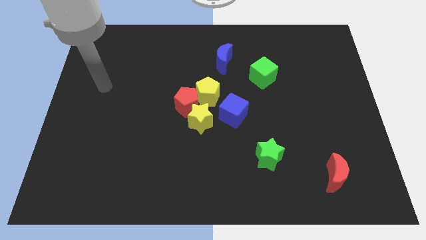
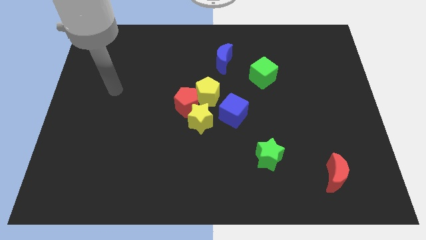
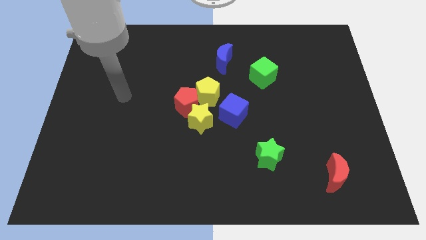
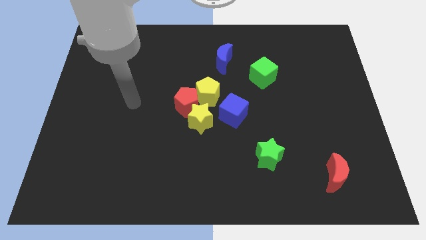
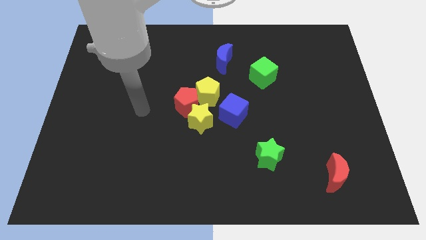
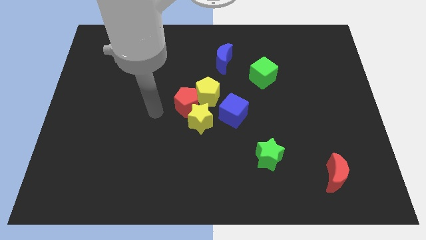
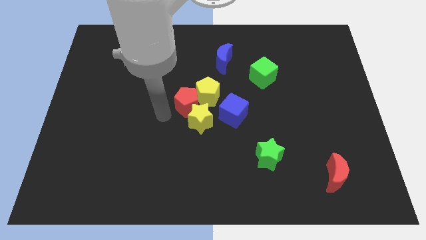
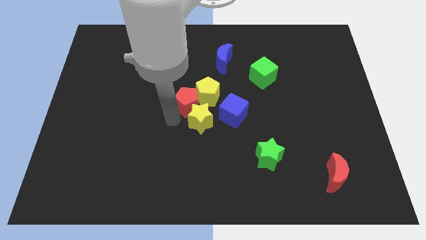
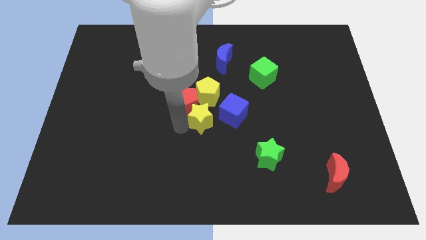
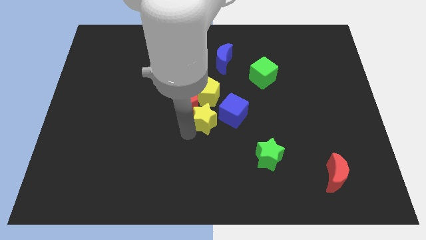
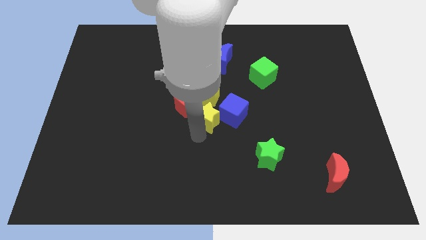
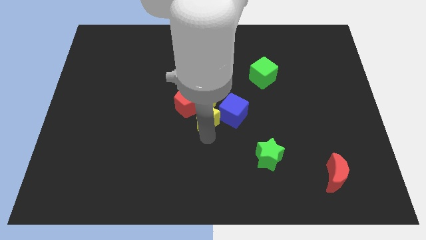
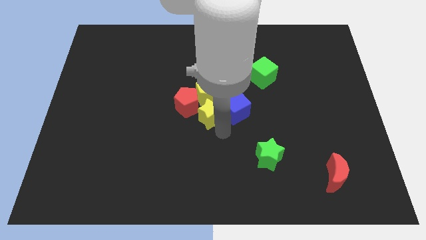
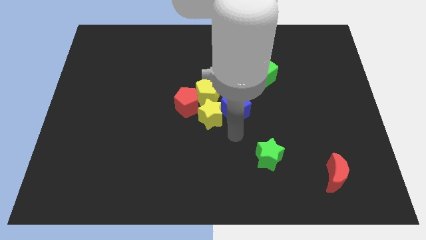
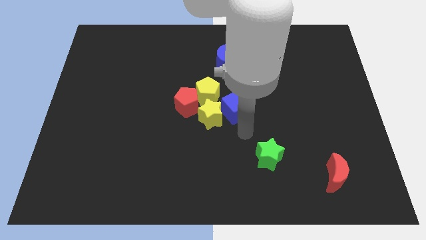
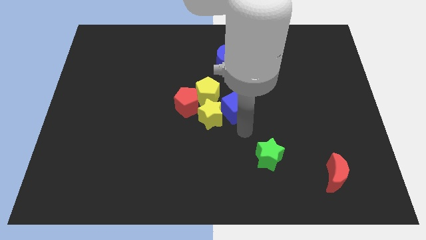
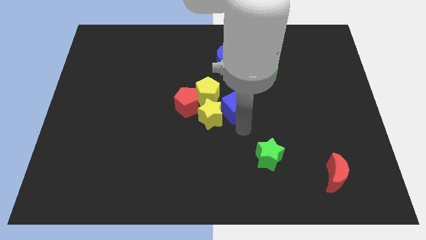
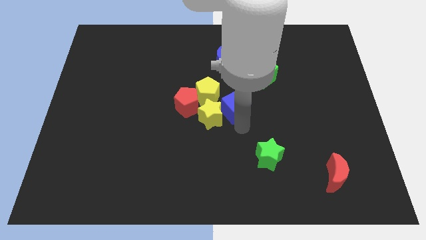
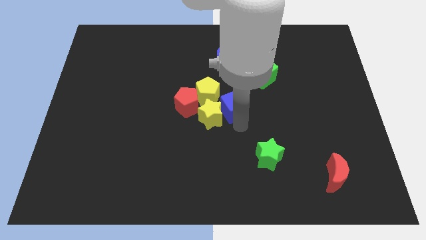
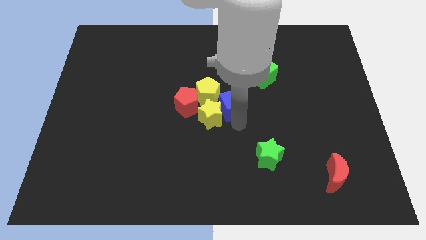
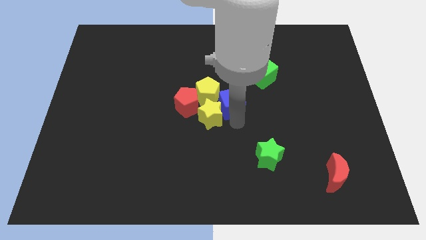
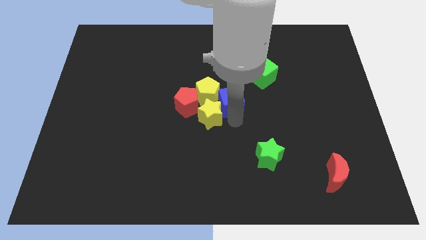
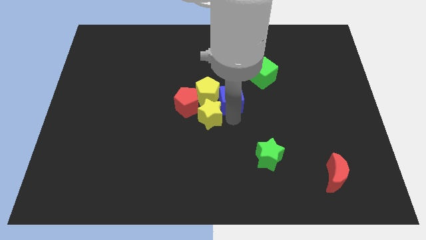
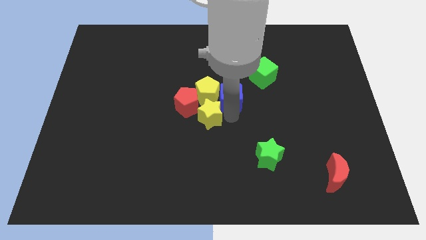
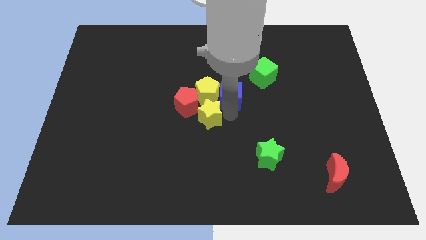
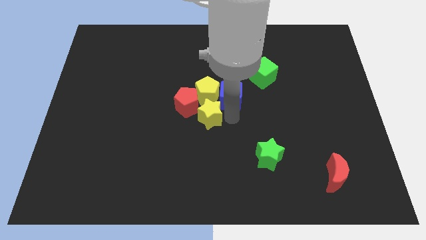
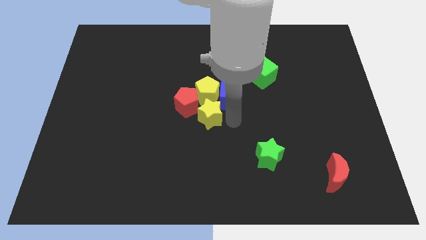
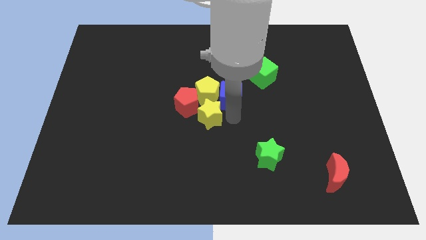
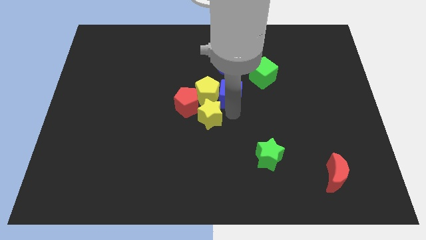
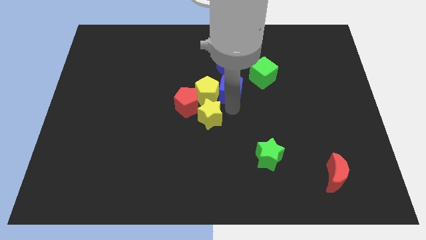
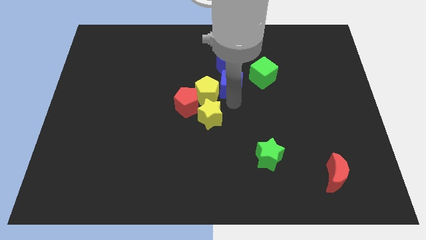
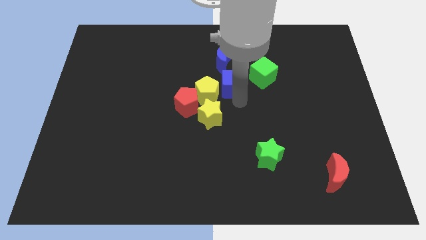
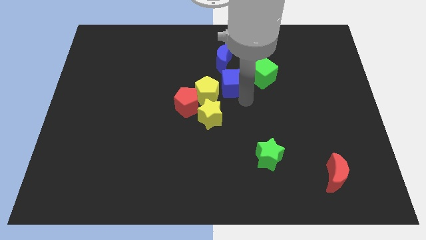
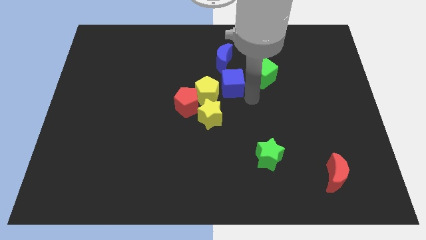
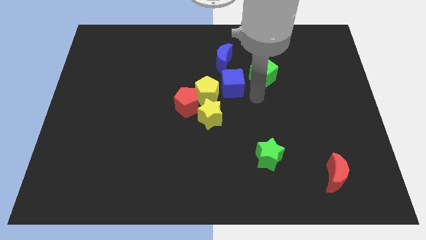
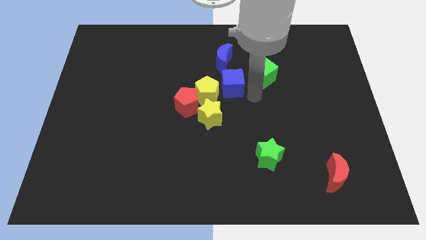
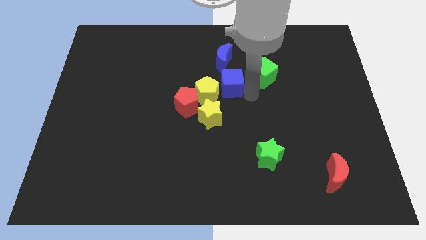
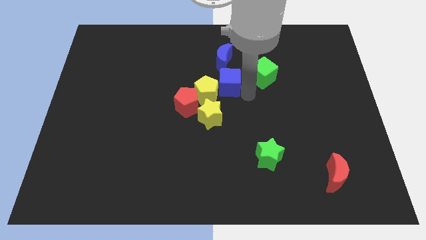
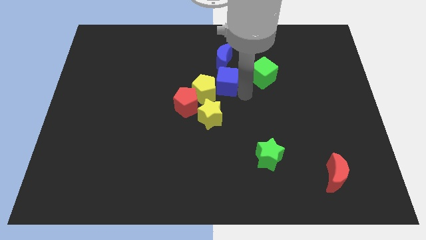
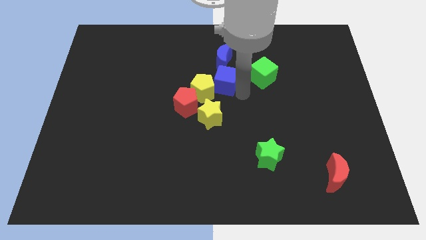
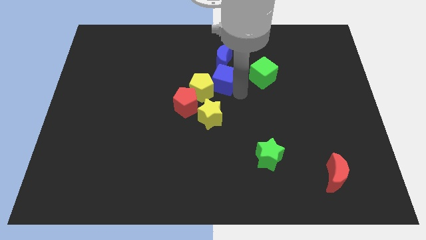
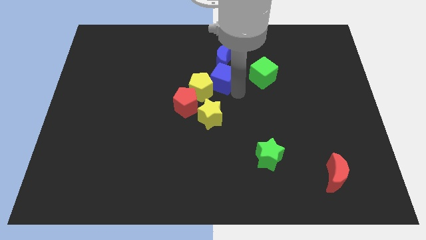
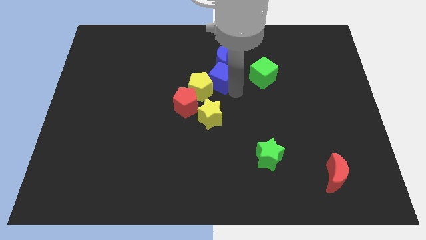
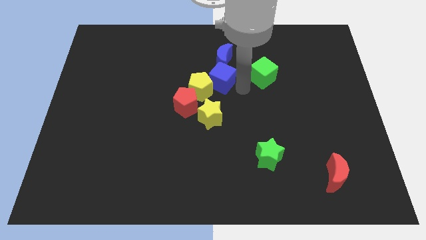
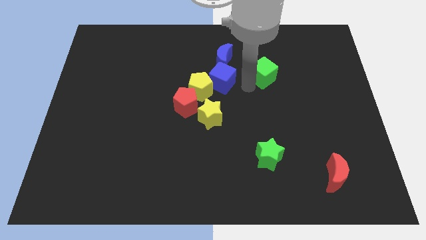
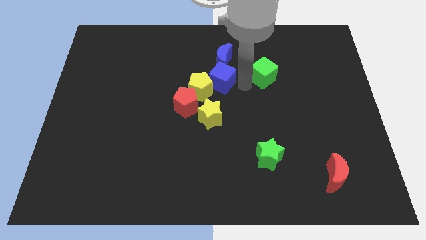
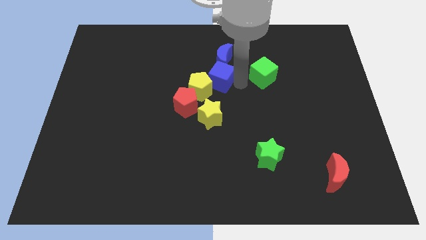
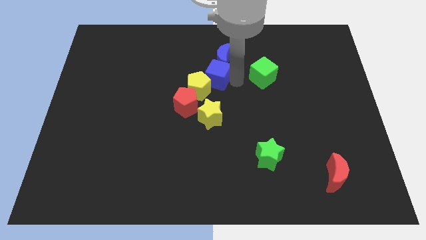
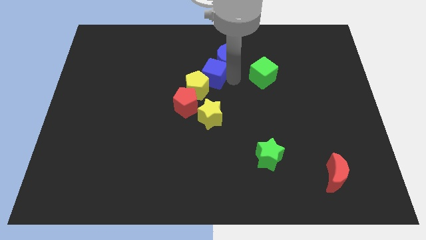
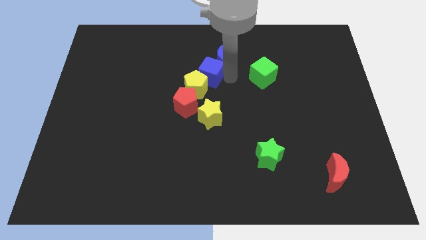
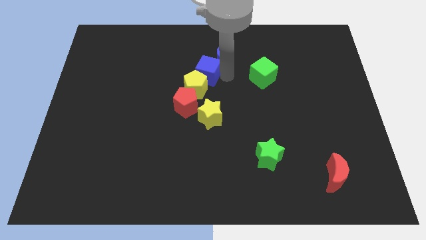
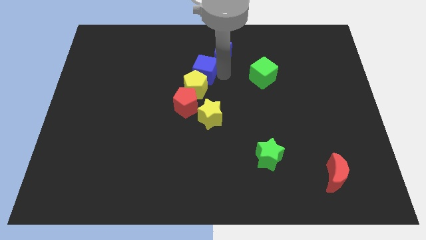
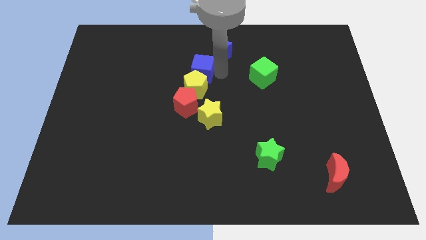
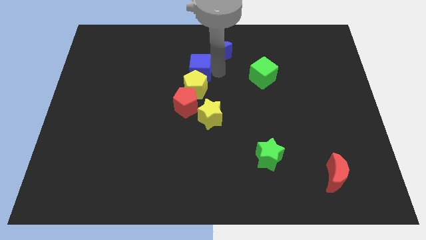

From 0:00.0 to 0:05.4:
push the blue cube to the top left of the yellow pentagon

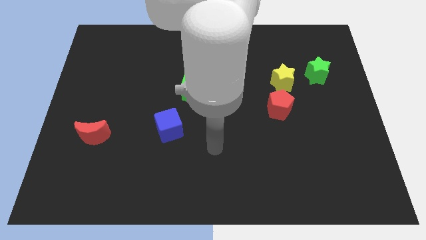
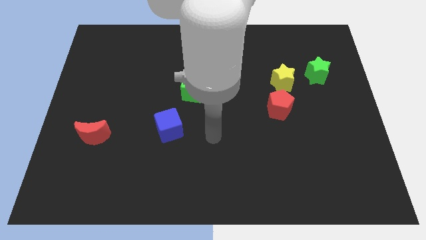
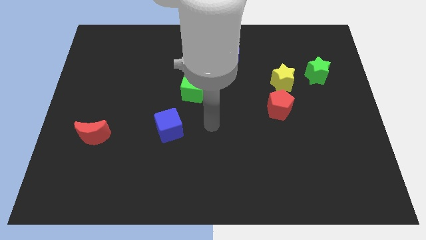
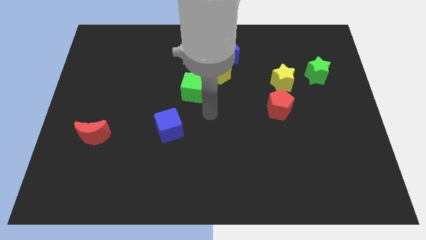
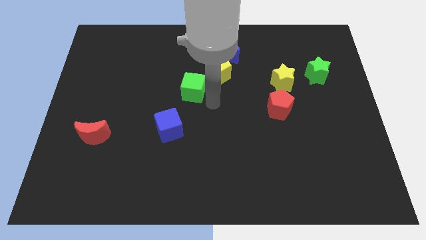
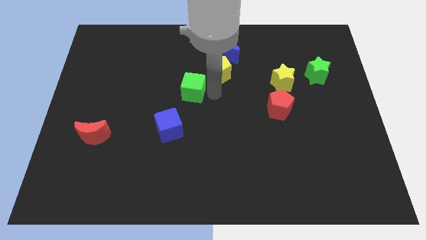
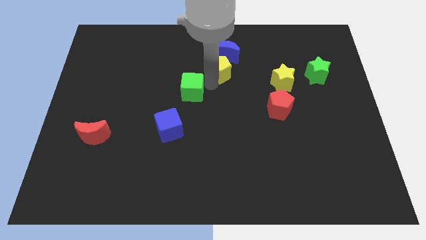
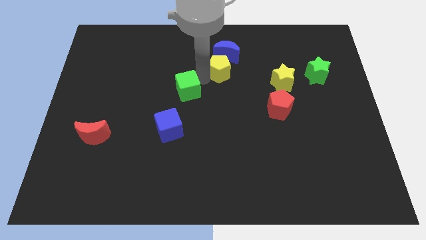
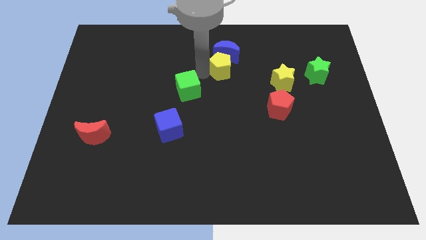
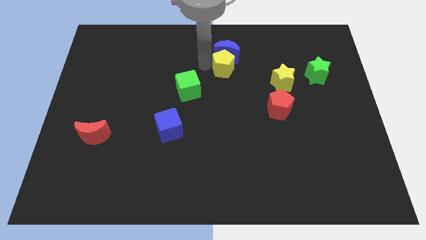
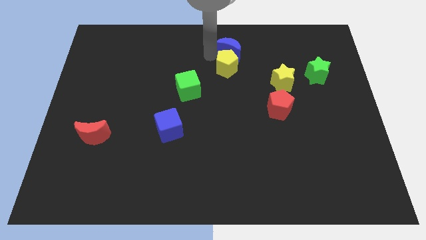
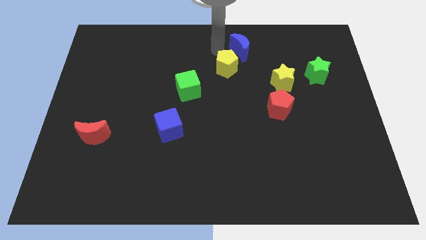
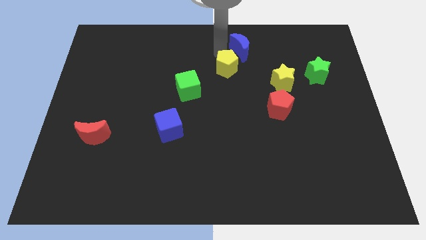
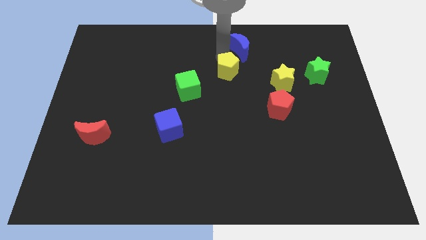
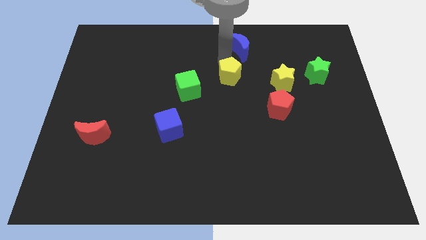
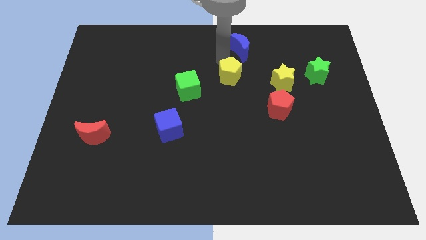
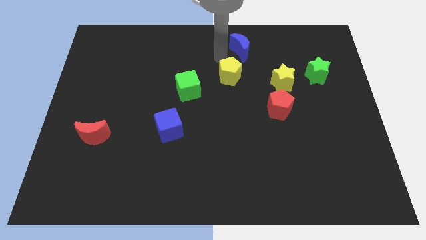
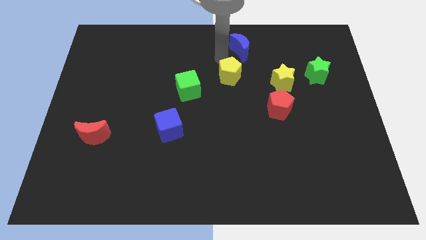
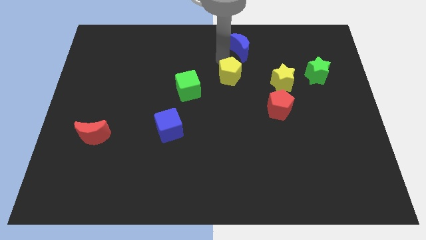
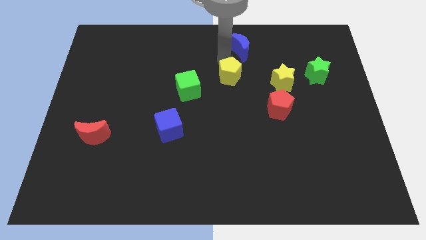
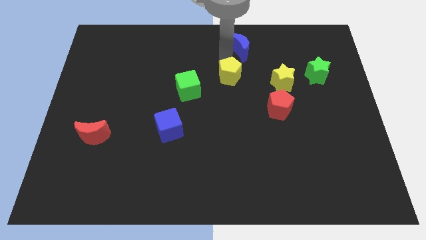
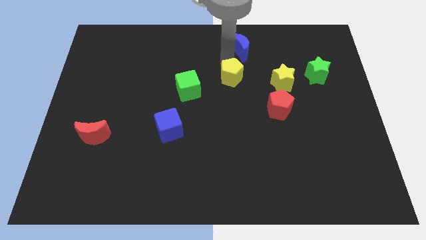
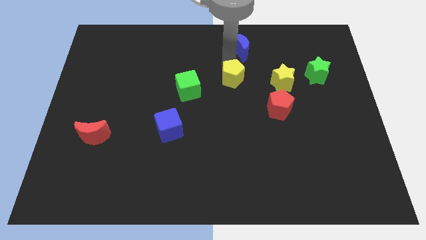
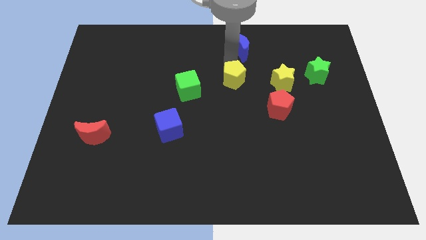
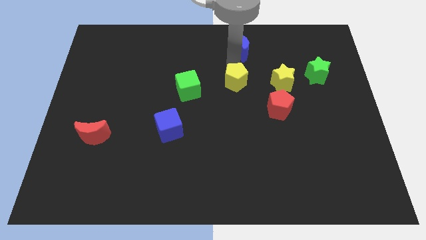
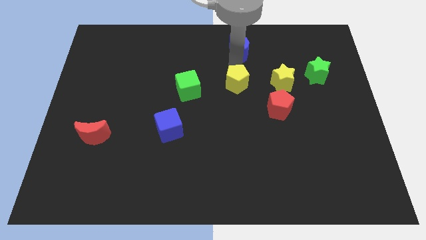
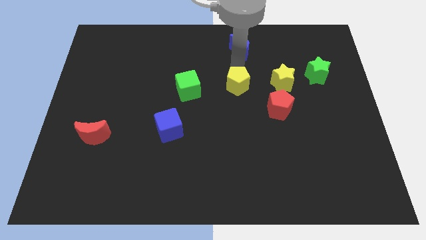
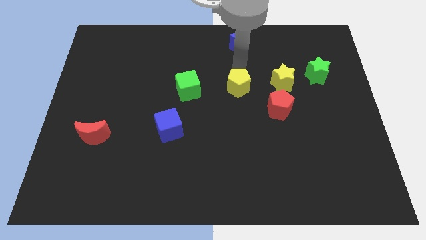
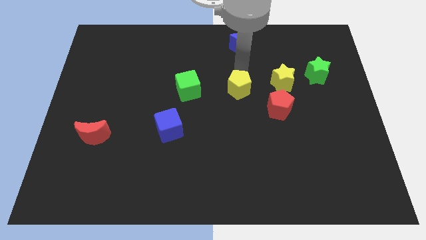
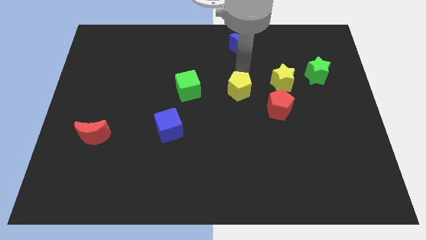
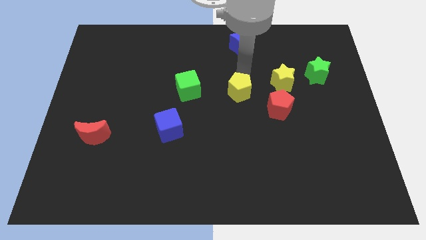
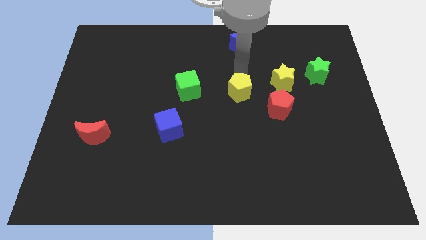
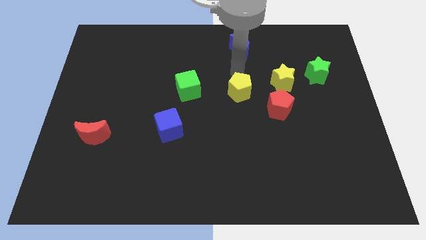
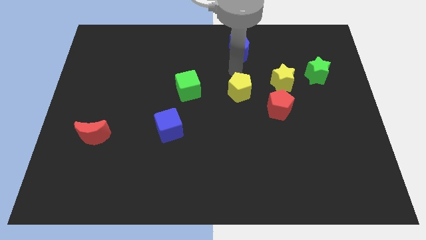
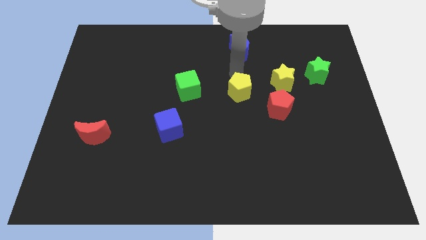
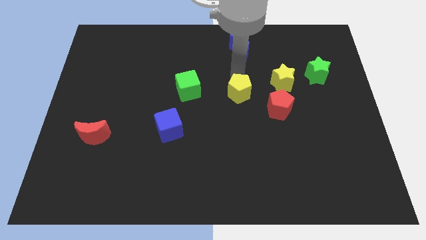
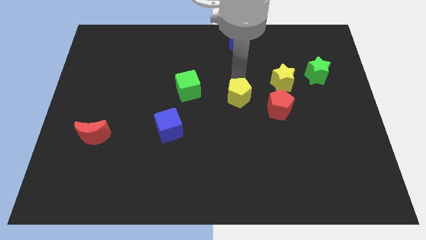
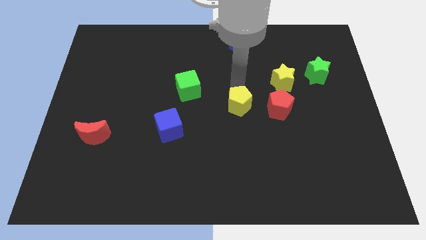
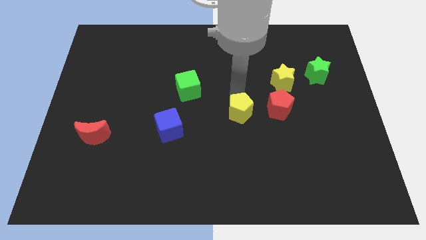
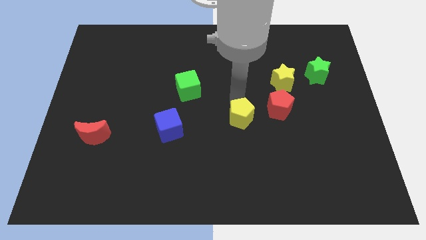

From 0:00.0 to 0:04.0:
slide the yellow pentagon to the bottom left of the red pentagon
